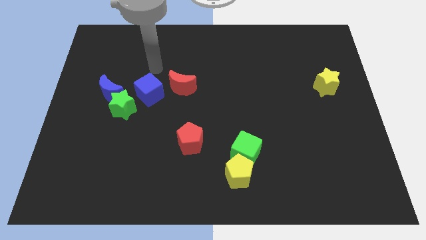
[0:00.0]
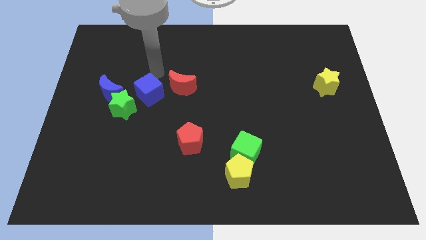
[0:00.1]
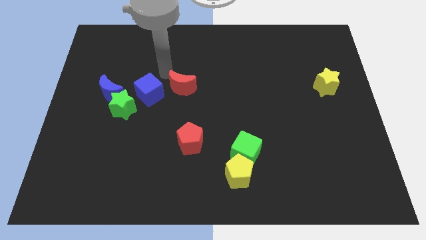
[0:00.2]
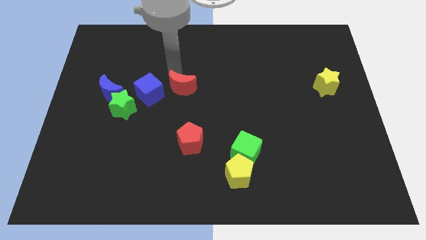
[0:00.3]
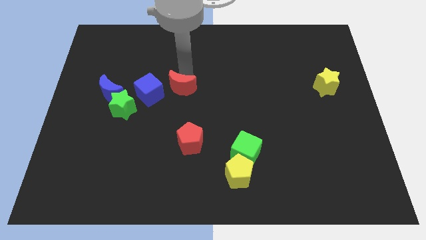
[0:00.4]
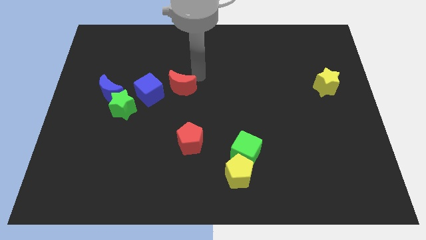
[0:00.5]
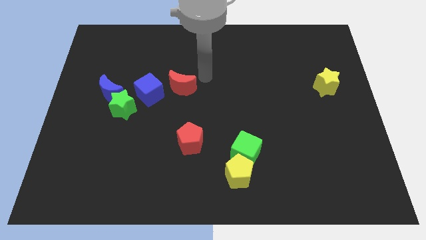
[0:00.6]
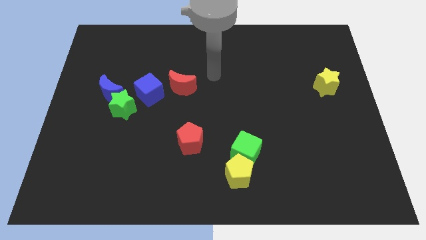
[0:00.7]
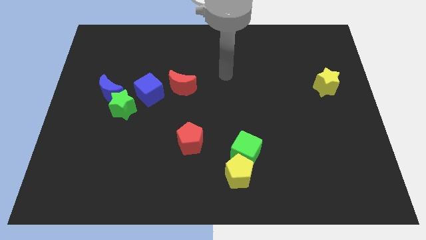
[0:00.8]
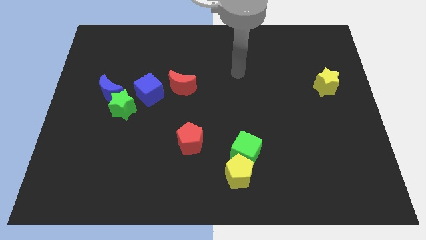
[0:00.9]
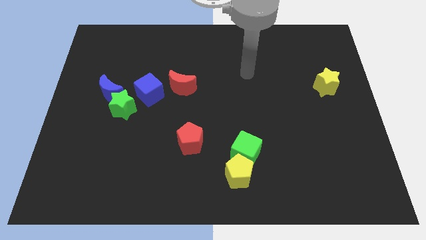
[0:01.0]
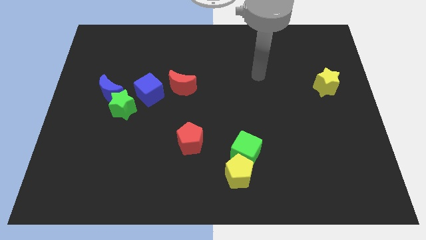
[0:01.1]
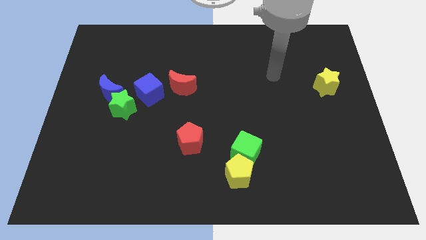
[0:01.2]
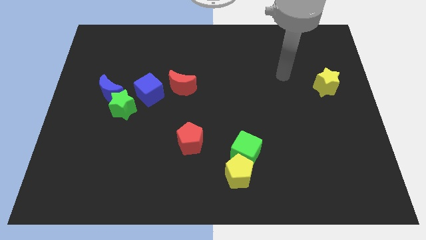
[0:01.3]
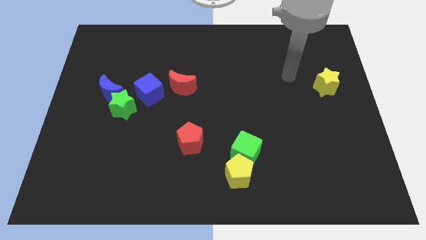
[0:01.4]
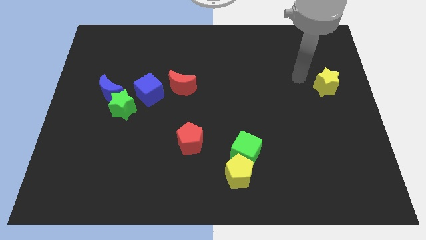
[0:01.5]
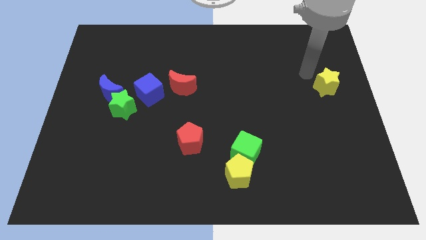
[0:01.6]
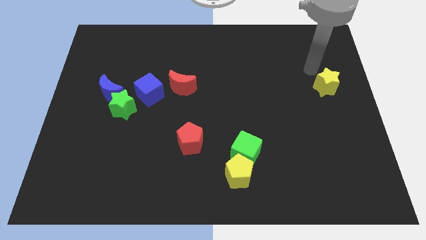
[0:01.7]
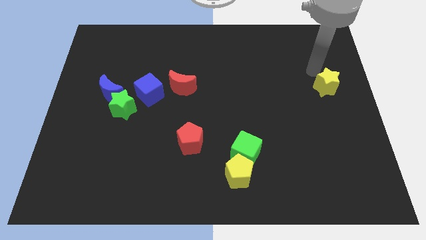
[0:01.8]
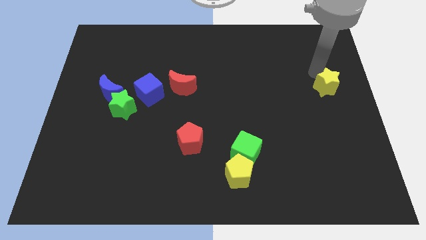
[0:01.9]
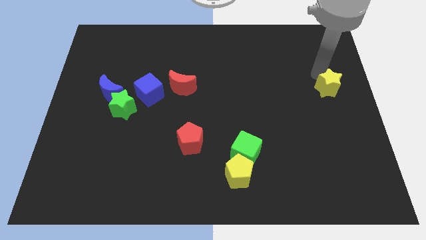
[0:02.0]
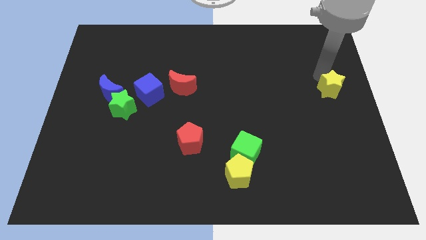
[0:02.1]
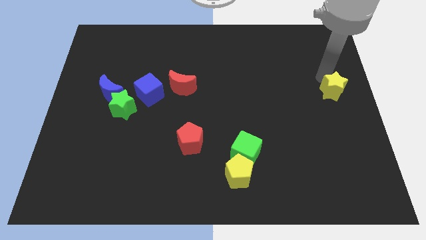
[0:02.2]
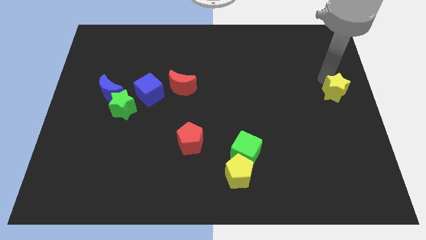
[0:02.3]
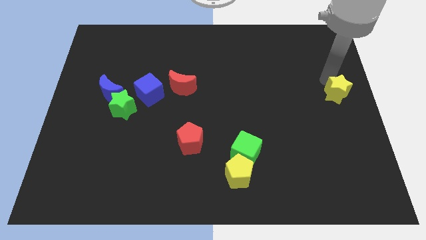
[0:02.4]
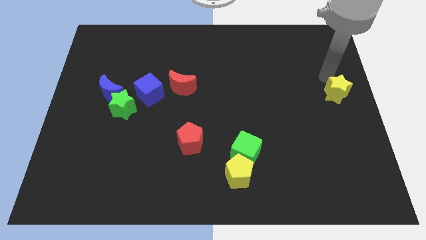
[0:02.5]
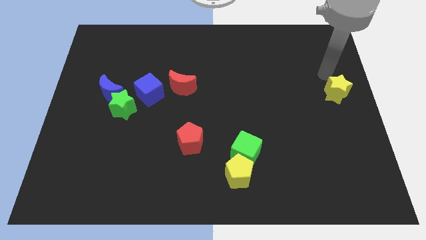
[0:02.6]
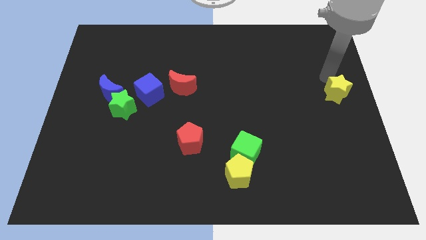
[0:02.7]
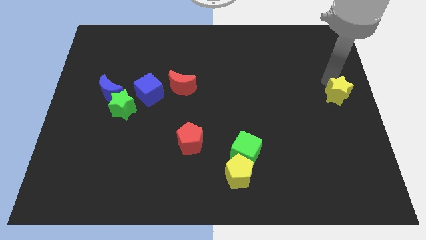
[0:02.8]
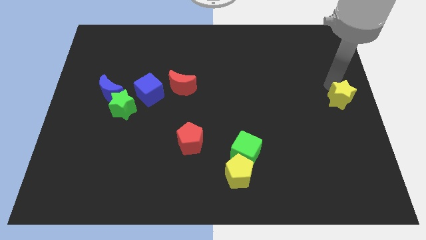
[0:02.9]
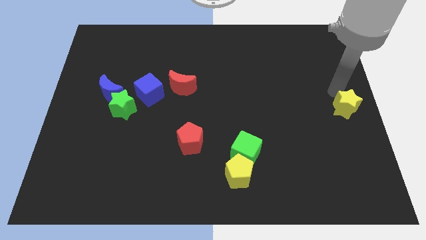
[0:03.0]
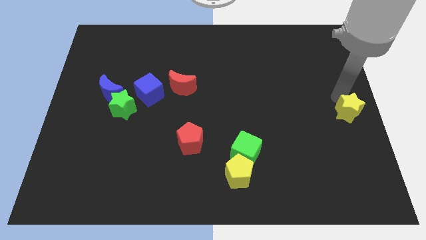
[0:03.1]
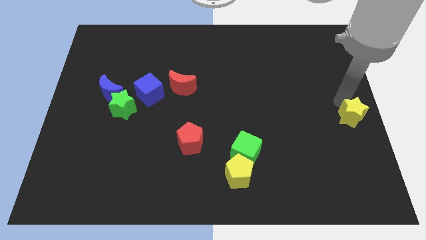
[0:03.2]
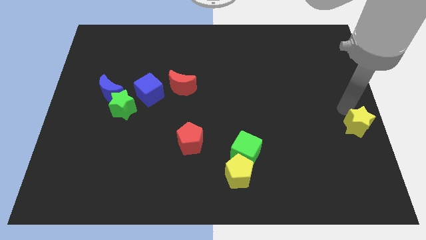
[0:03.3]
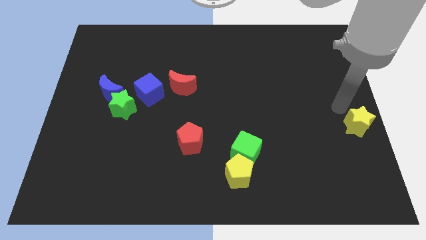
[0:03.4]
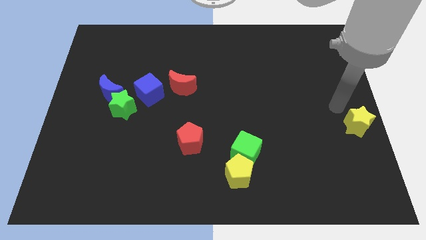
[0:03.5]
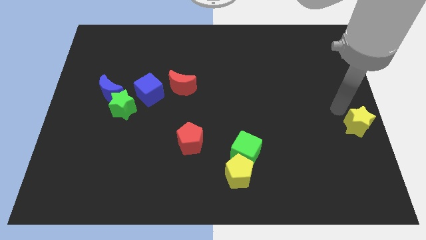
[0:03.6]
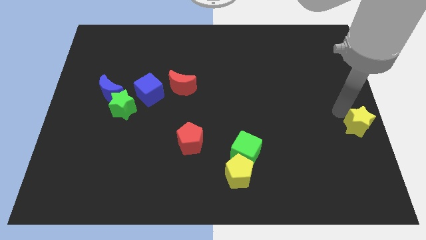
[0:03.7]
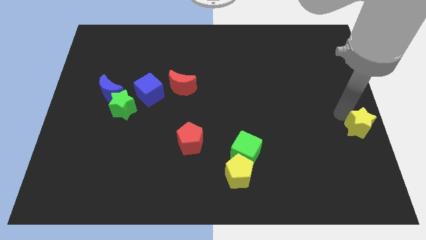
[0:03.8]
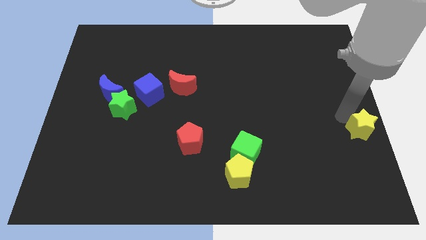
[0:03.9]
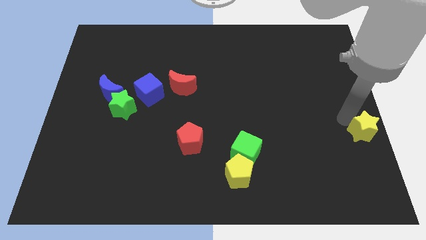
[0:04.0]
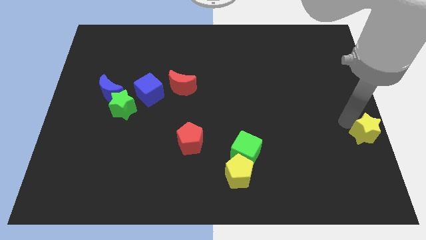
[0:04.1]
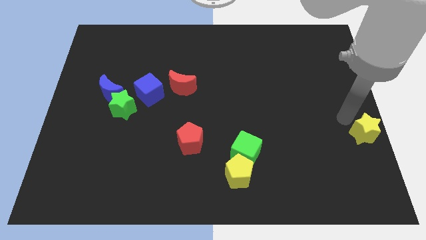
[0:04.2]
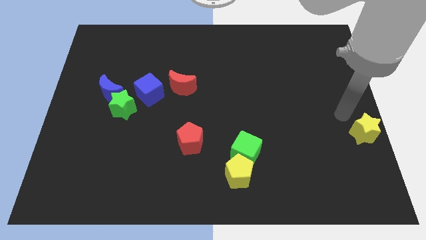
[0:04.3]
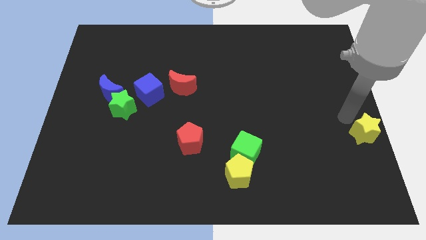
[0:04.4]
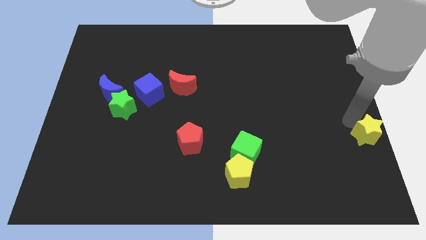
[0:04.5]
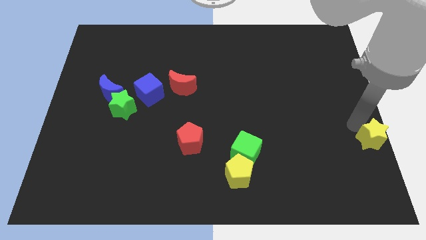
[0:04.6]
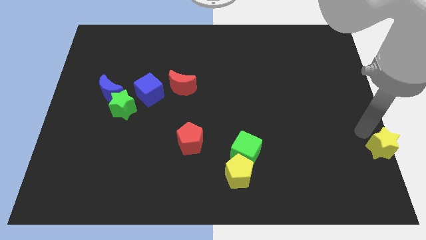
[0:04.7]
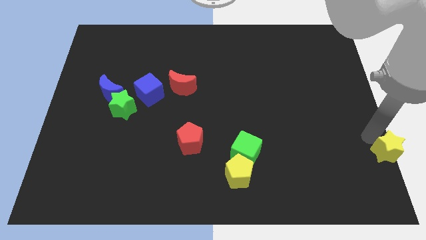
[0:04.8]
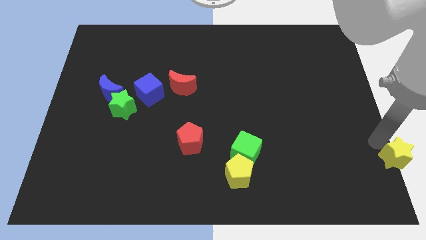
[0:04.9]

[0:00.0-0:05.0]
put the yellow star to the lower right corner
